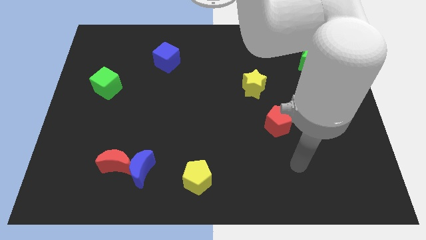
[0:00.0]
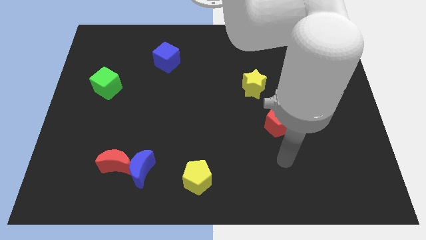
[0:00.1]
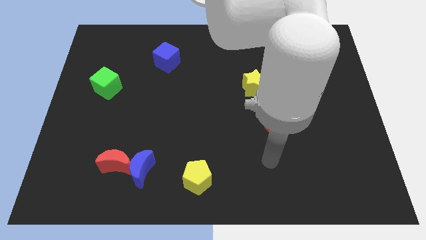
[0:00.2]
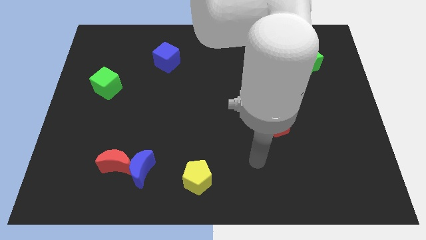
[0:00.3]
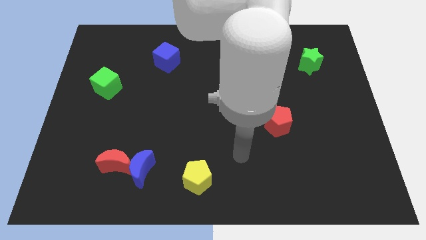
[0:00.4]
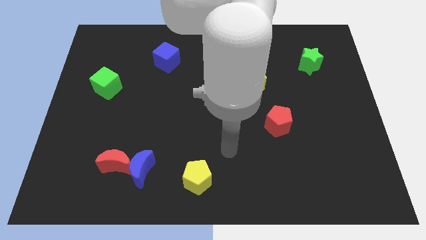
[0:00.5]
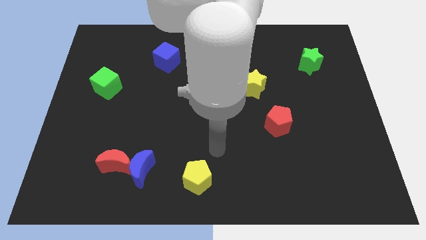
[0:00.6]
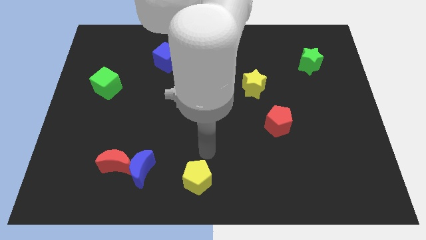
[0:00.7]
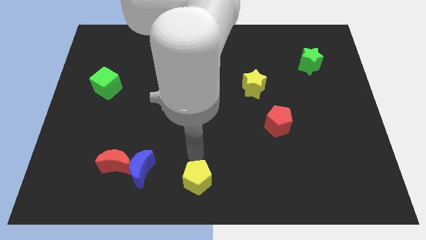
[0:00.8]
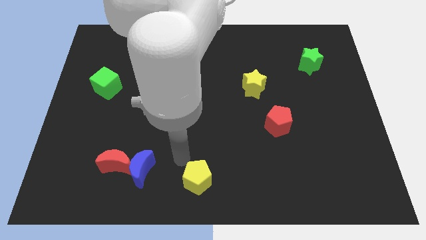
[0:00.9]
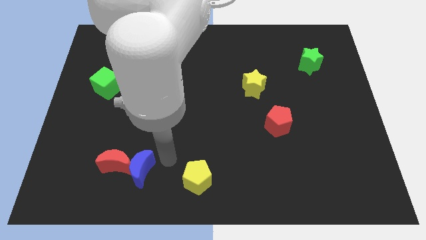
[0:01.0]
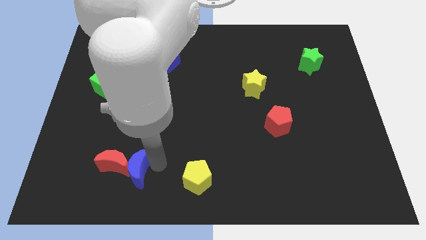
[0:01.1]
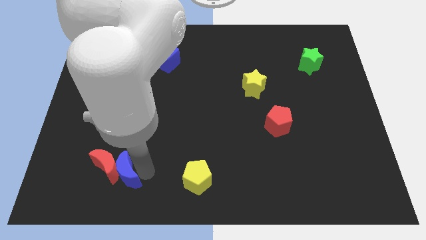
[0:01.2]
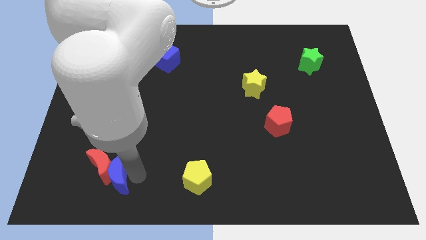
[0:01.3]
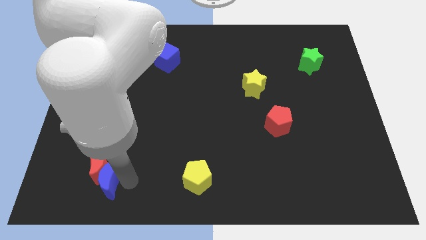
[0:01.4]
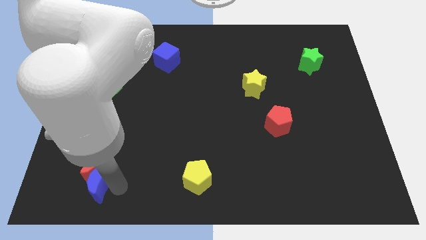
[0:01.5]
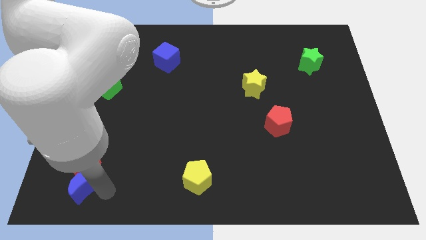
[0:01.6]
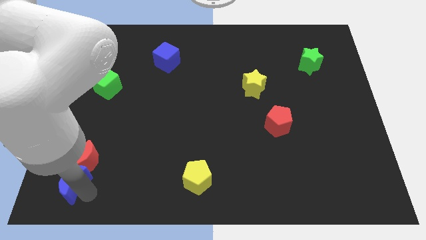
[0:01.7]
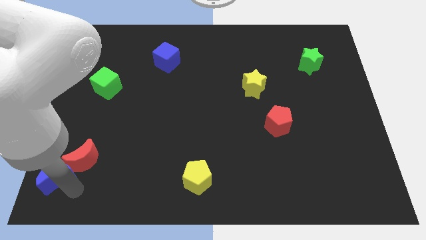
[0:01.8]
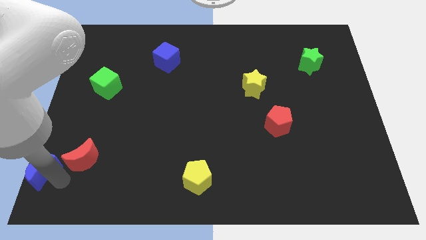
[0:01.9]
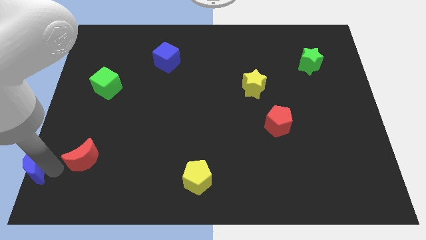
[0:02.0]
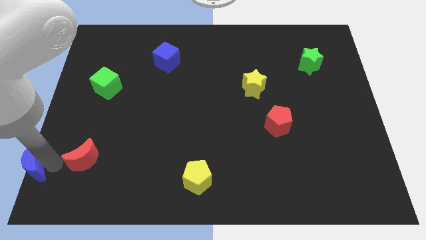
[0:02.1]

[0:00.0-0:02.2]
move the red moon away from the blue moon

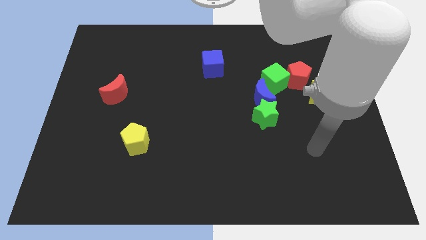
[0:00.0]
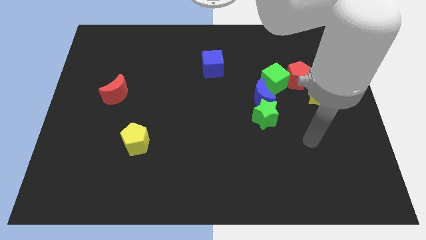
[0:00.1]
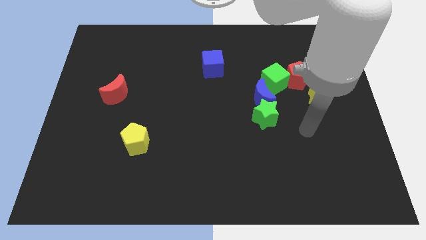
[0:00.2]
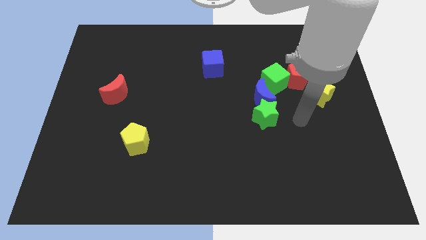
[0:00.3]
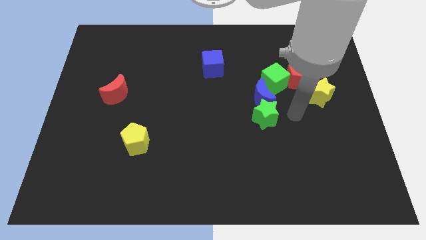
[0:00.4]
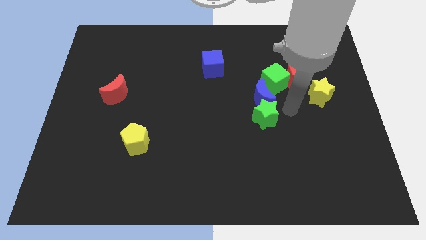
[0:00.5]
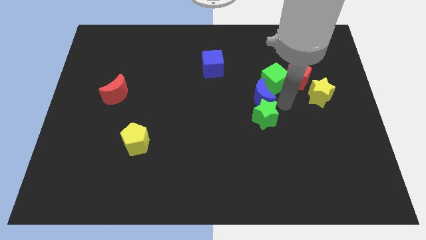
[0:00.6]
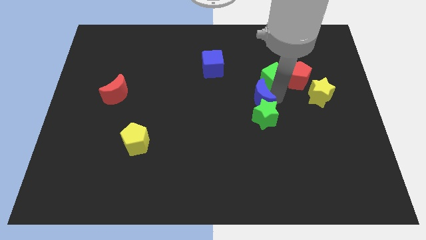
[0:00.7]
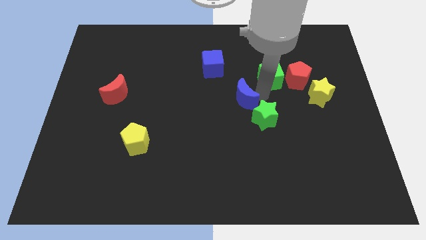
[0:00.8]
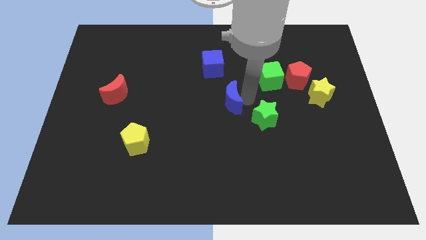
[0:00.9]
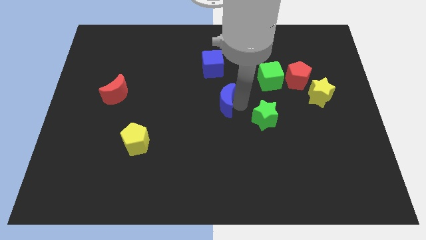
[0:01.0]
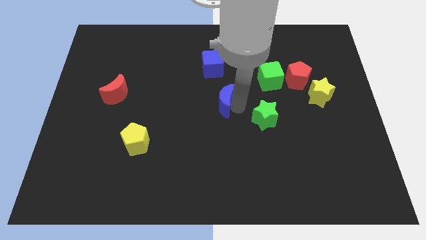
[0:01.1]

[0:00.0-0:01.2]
separate the green star from the blue moon

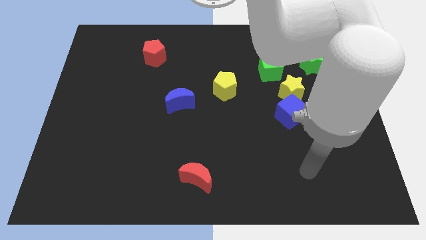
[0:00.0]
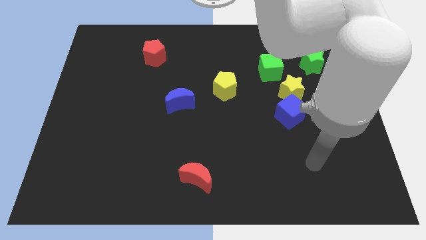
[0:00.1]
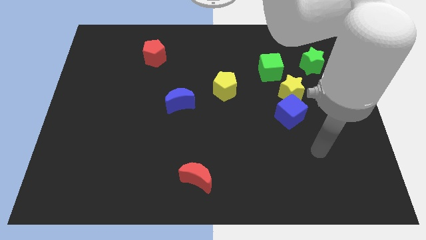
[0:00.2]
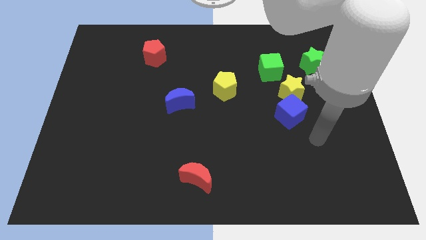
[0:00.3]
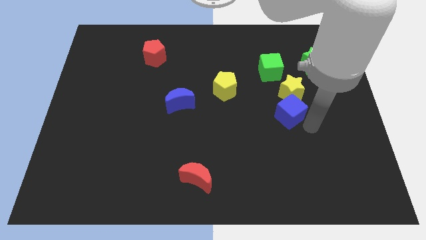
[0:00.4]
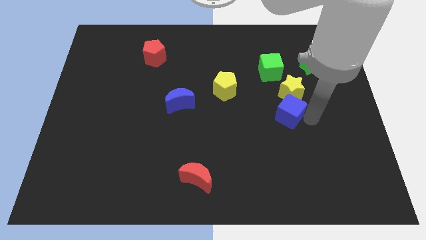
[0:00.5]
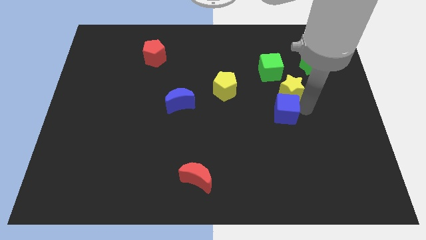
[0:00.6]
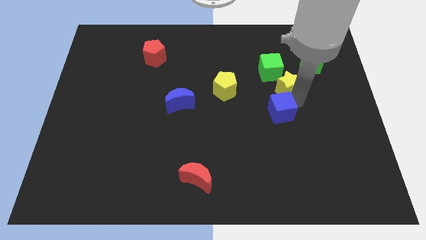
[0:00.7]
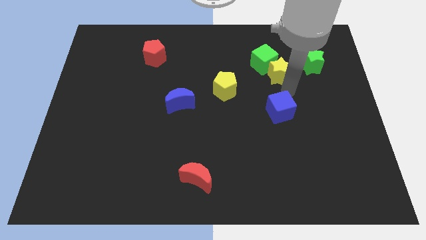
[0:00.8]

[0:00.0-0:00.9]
move the blue cube away from the yellow star

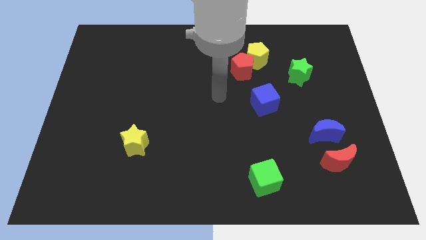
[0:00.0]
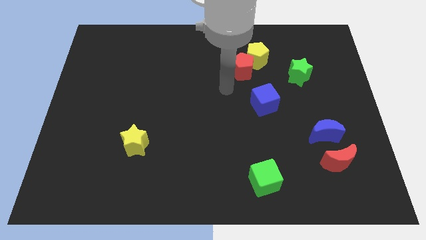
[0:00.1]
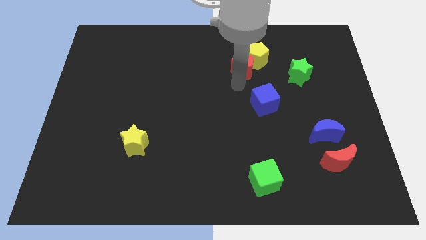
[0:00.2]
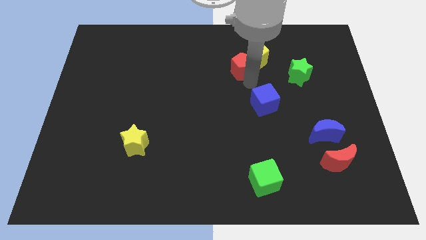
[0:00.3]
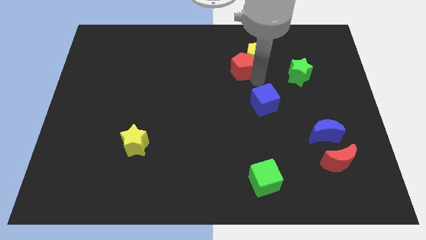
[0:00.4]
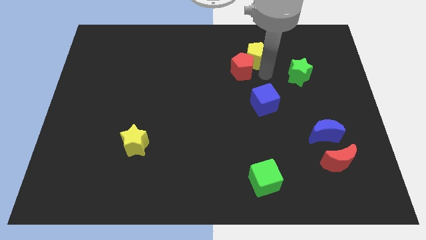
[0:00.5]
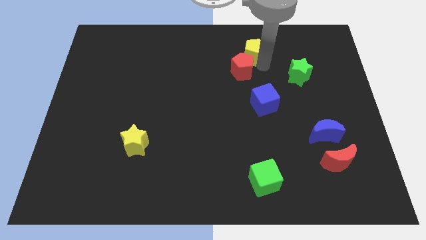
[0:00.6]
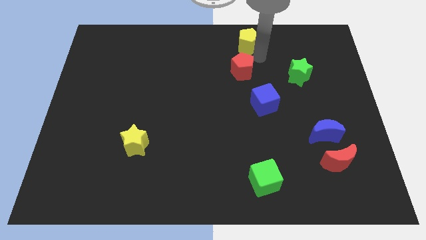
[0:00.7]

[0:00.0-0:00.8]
move the red pentagon away from the yellow pentagon

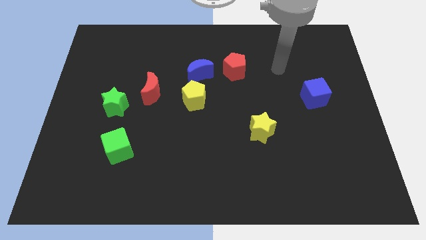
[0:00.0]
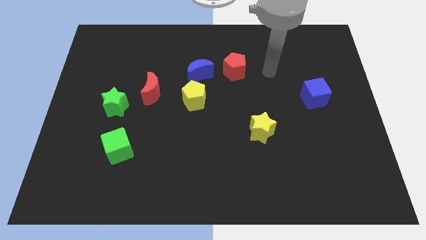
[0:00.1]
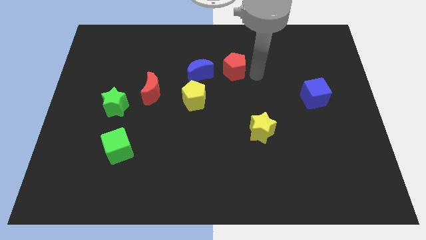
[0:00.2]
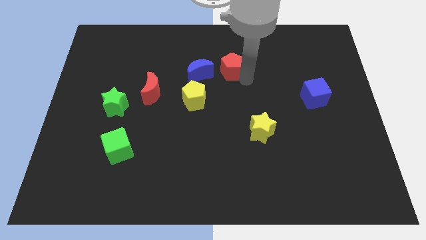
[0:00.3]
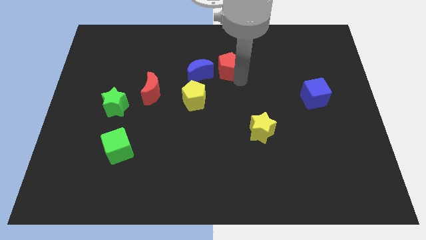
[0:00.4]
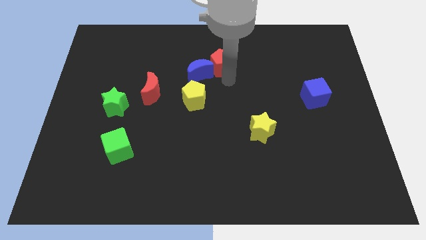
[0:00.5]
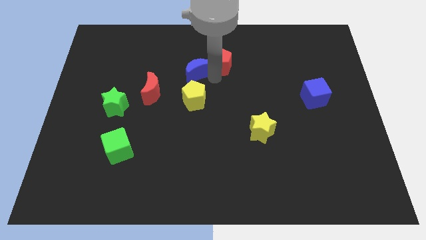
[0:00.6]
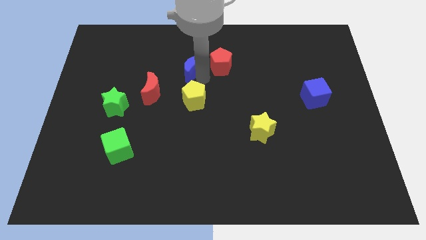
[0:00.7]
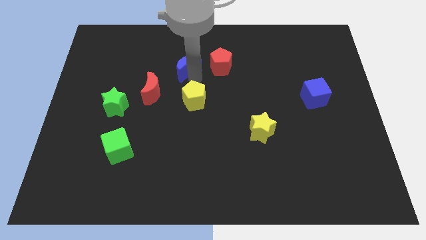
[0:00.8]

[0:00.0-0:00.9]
separate the yellow pentagon from the blue moon

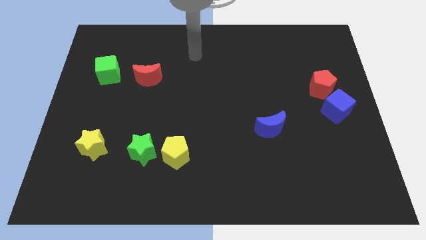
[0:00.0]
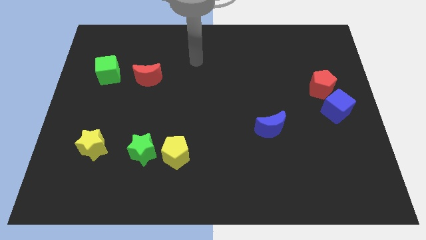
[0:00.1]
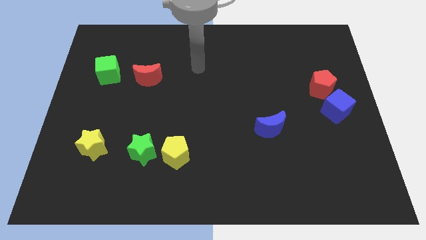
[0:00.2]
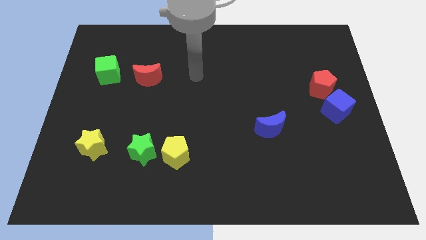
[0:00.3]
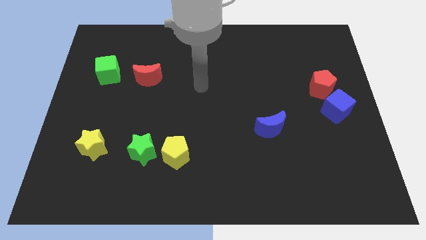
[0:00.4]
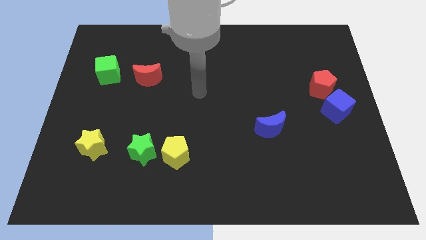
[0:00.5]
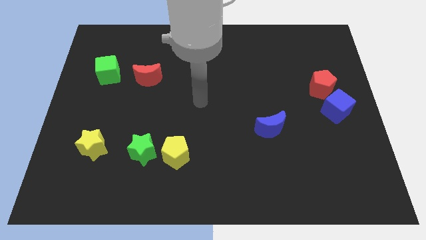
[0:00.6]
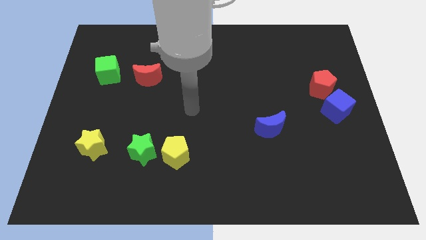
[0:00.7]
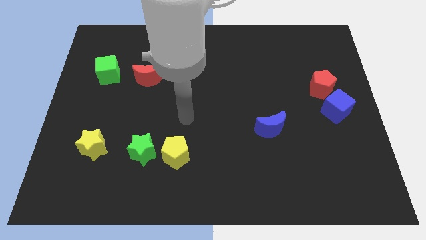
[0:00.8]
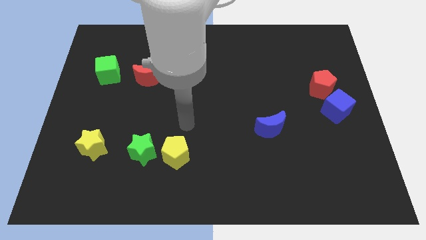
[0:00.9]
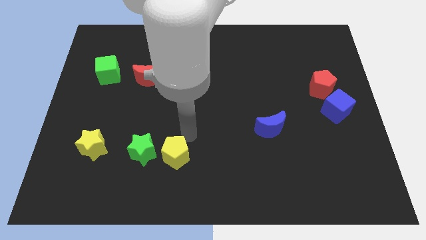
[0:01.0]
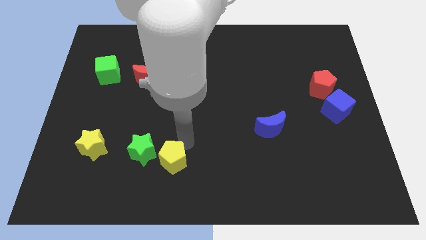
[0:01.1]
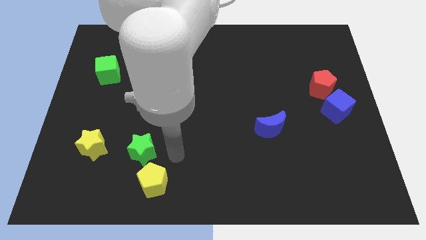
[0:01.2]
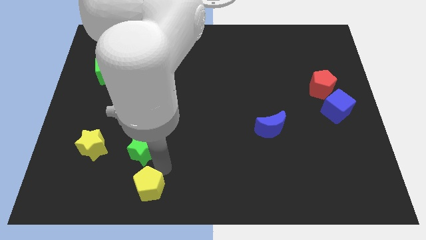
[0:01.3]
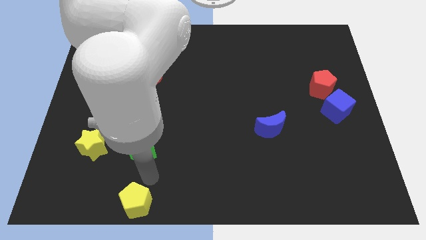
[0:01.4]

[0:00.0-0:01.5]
pull the green star apart from the yellow pentagon

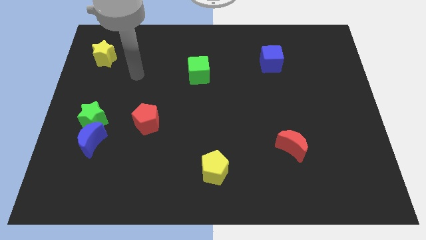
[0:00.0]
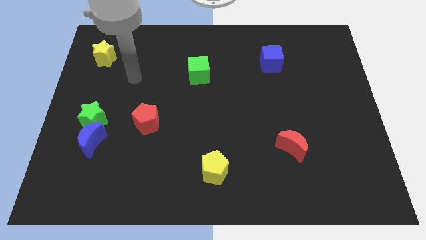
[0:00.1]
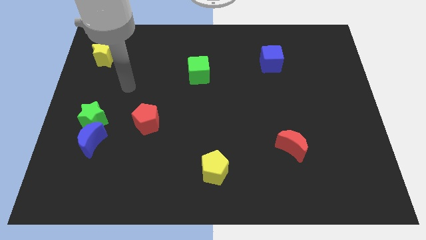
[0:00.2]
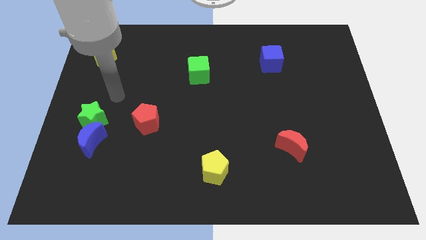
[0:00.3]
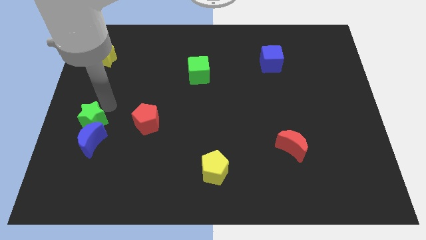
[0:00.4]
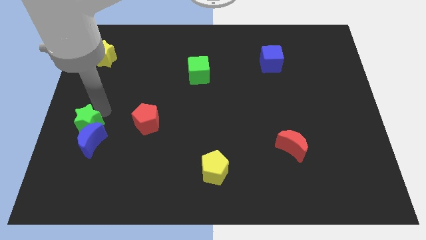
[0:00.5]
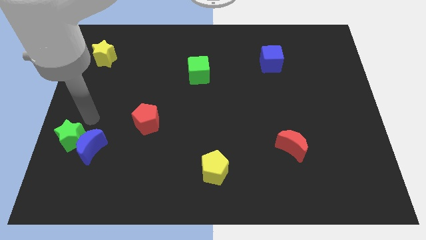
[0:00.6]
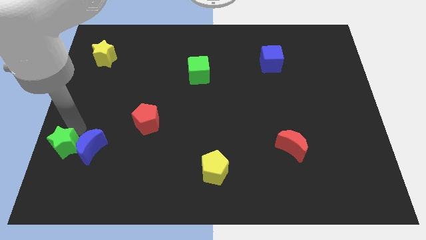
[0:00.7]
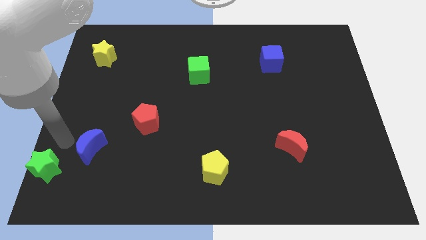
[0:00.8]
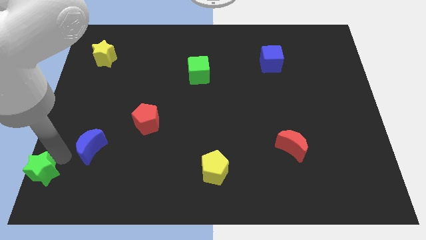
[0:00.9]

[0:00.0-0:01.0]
move the blue moon away from the green star

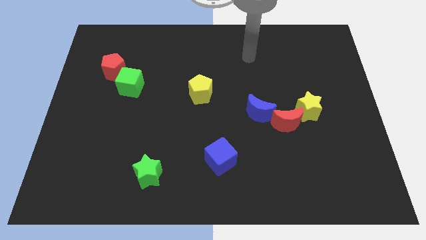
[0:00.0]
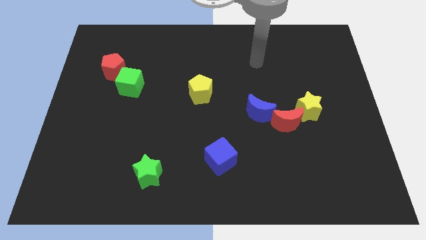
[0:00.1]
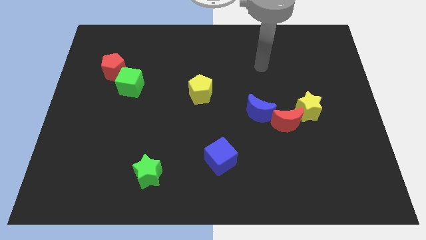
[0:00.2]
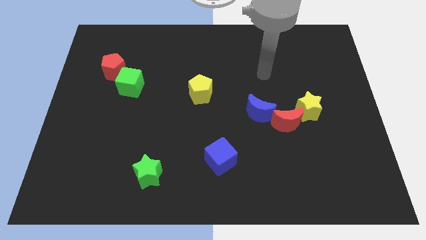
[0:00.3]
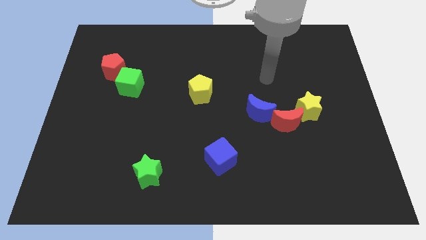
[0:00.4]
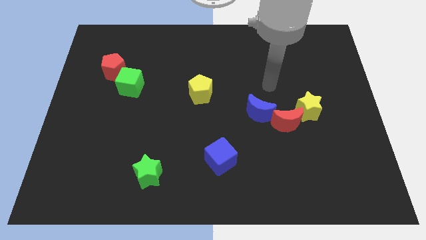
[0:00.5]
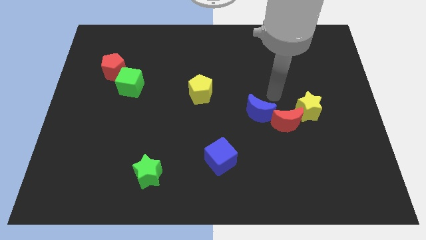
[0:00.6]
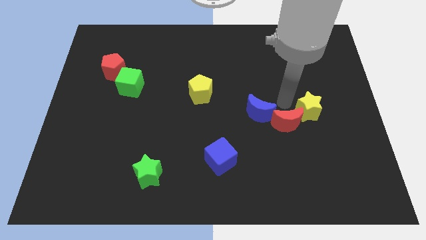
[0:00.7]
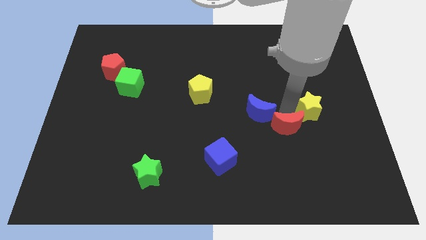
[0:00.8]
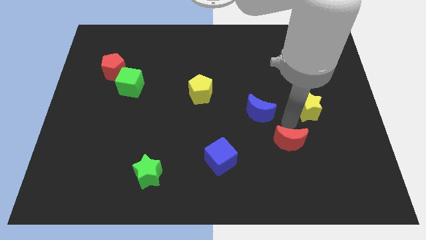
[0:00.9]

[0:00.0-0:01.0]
move the yellow star away from the red moon
